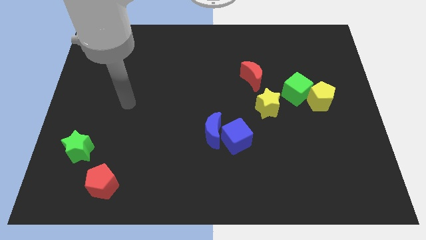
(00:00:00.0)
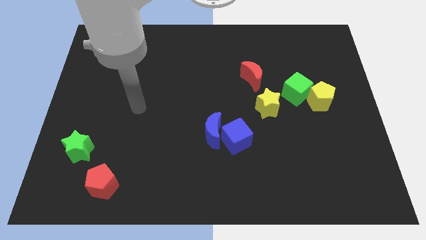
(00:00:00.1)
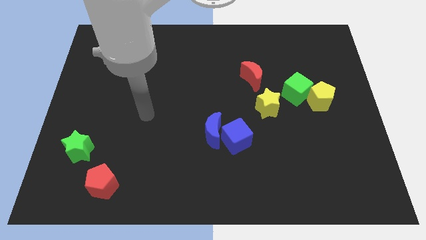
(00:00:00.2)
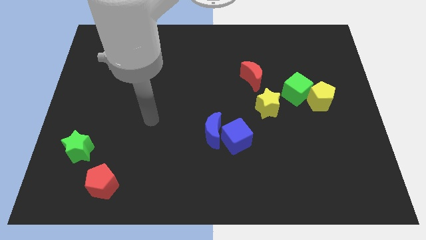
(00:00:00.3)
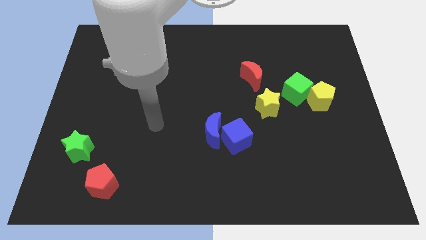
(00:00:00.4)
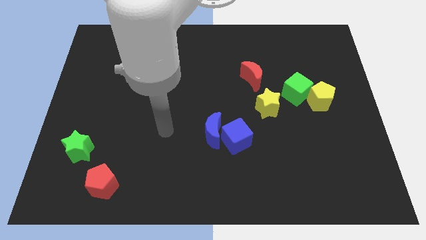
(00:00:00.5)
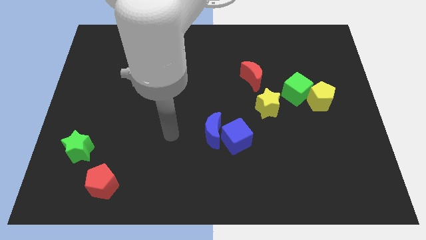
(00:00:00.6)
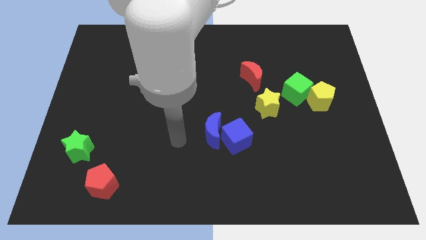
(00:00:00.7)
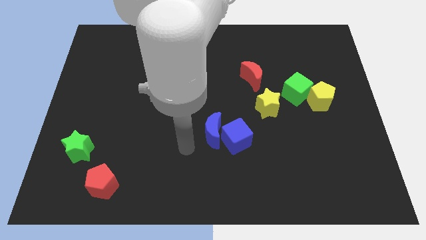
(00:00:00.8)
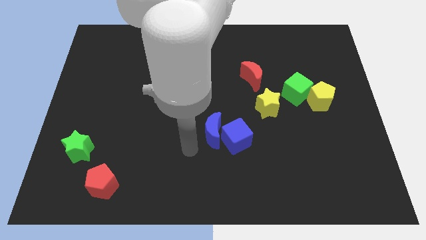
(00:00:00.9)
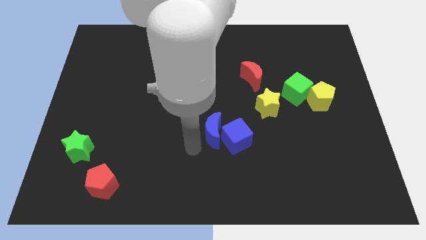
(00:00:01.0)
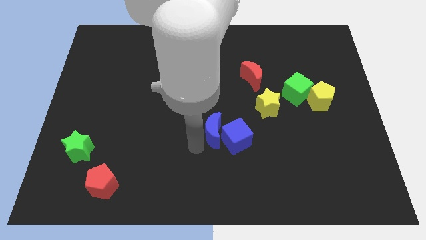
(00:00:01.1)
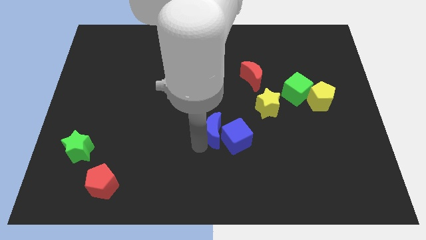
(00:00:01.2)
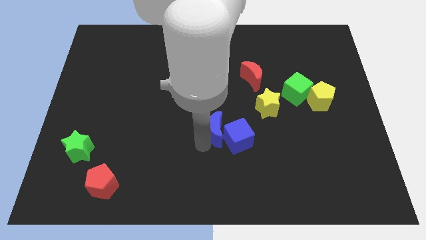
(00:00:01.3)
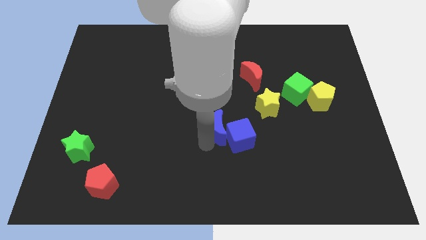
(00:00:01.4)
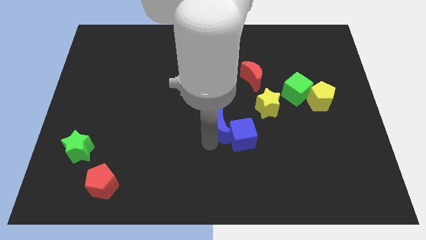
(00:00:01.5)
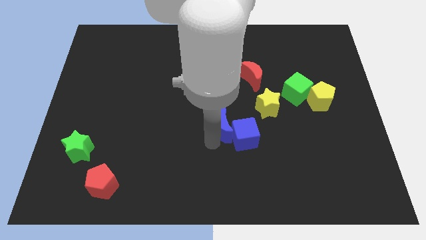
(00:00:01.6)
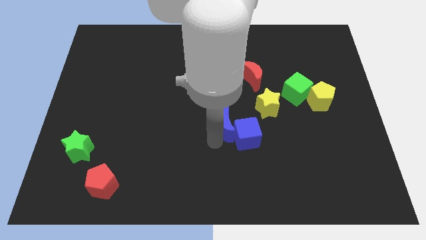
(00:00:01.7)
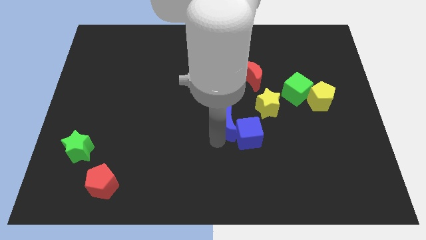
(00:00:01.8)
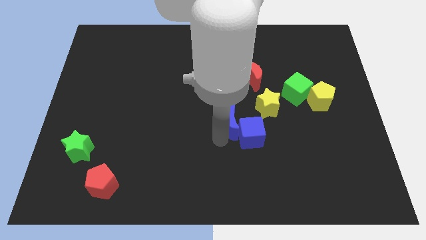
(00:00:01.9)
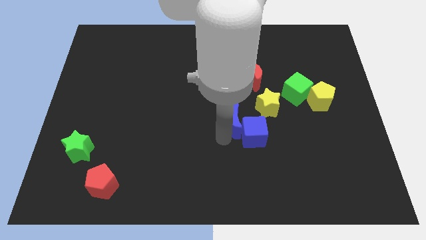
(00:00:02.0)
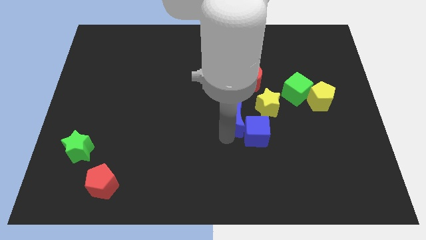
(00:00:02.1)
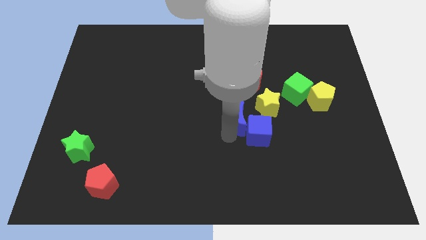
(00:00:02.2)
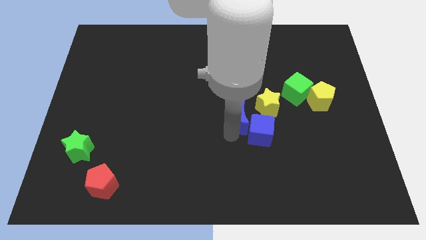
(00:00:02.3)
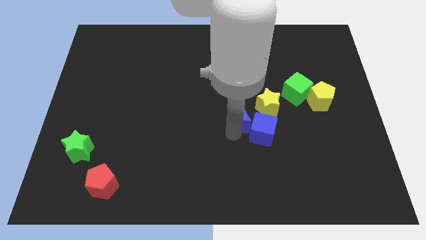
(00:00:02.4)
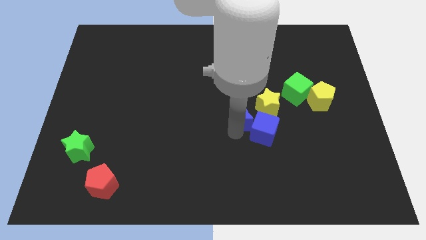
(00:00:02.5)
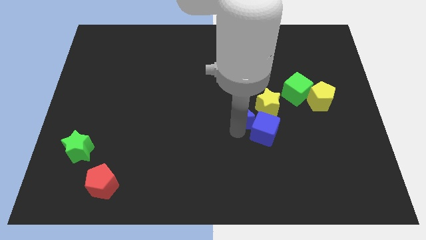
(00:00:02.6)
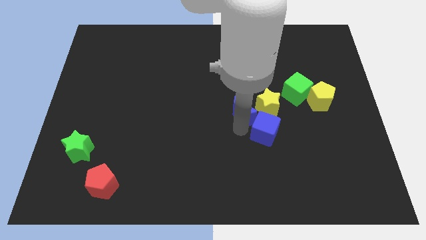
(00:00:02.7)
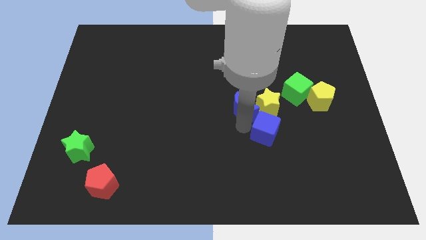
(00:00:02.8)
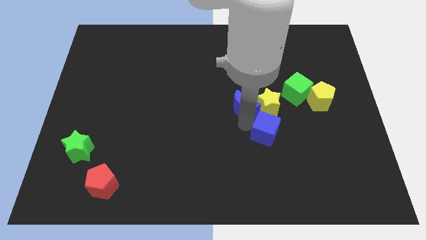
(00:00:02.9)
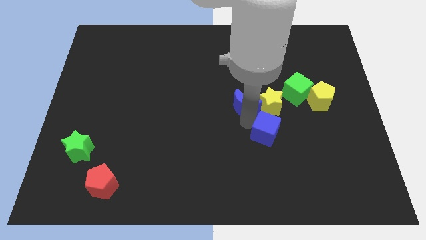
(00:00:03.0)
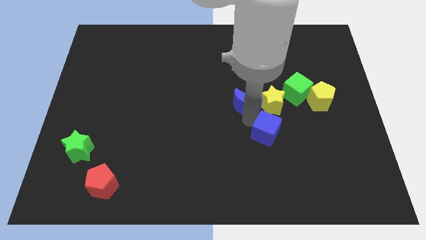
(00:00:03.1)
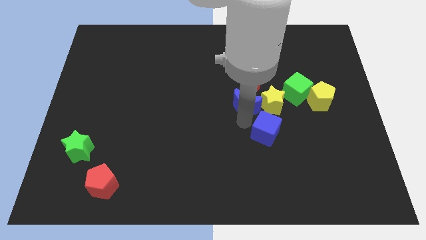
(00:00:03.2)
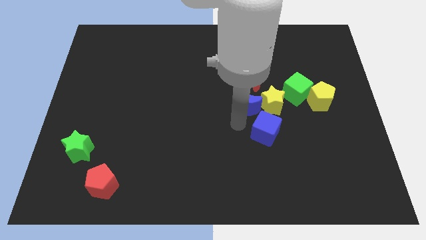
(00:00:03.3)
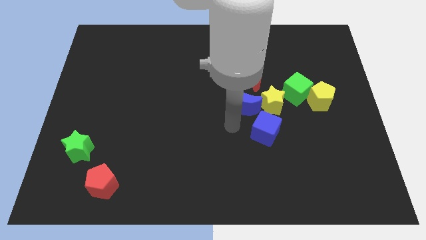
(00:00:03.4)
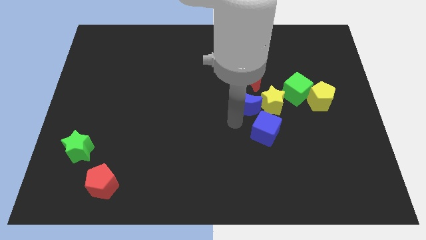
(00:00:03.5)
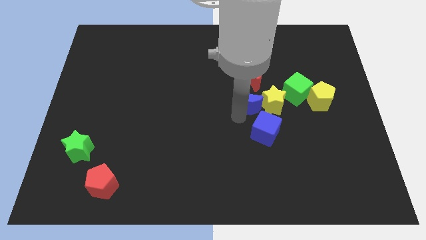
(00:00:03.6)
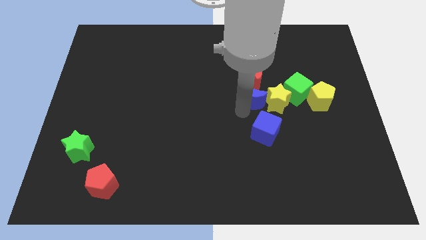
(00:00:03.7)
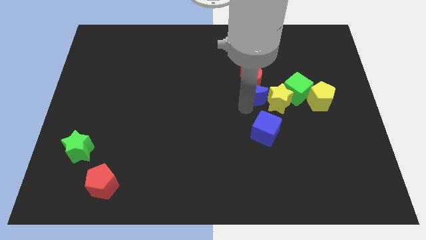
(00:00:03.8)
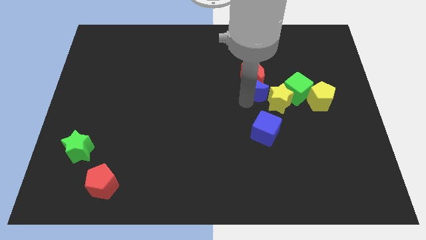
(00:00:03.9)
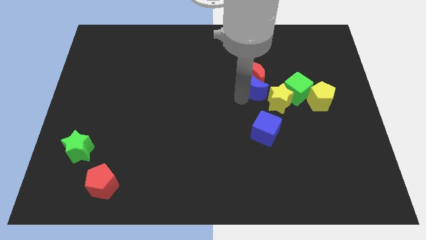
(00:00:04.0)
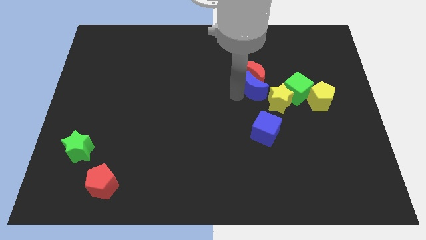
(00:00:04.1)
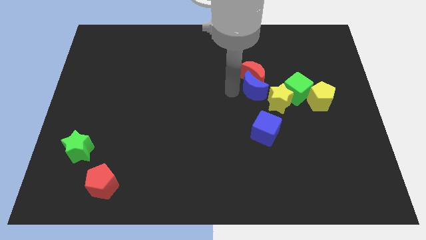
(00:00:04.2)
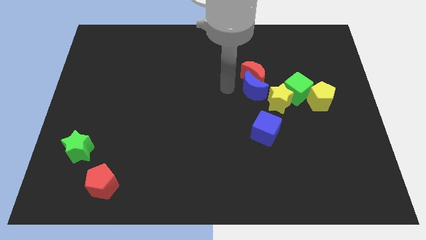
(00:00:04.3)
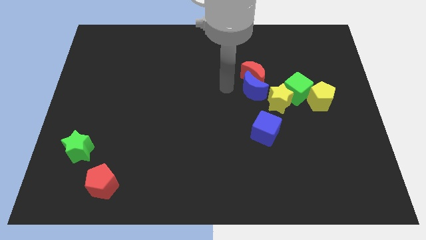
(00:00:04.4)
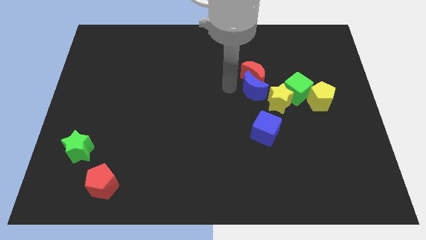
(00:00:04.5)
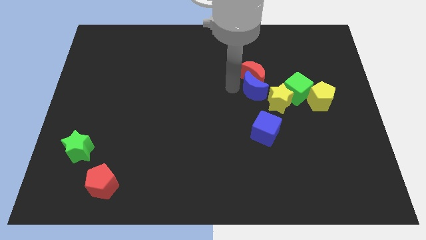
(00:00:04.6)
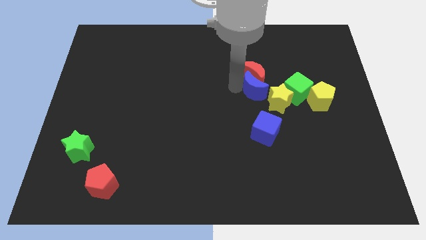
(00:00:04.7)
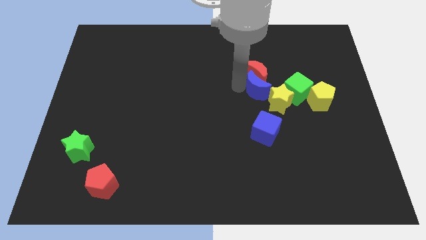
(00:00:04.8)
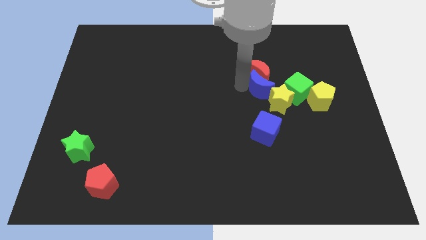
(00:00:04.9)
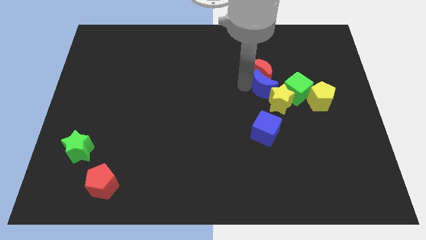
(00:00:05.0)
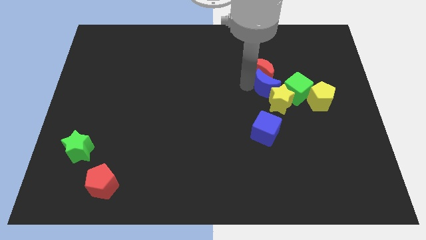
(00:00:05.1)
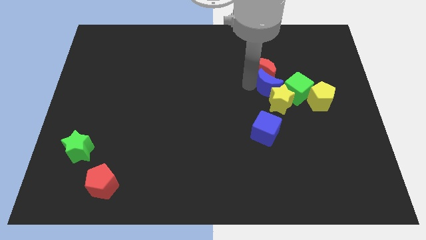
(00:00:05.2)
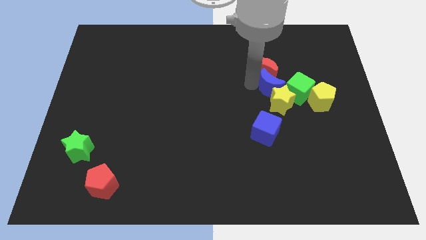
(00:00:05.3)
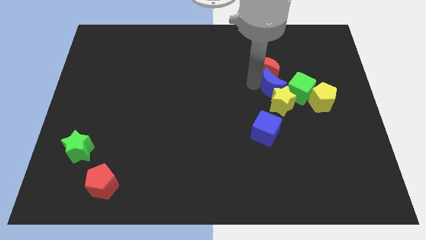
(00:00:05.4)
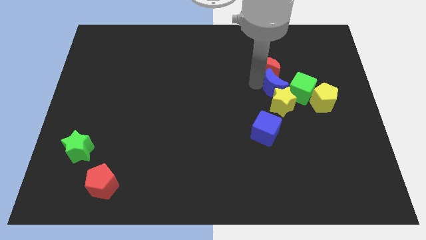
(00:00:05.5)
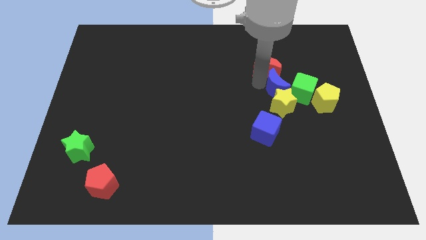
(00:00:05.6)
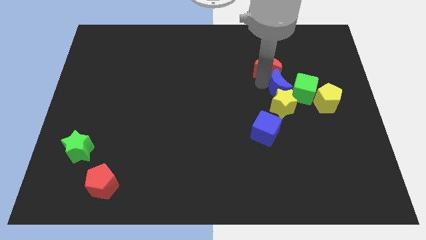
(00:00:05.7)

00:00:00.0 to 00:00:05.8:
slide the blue moon towards the green cube

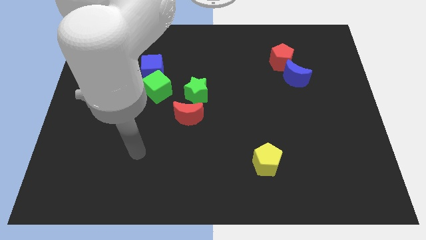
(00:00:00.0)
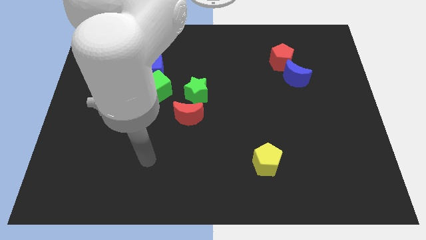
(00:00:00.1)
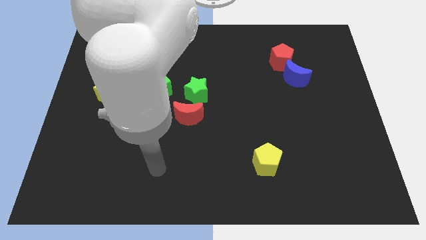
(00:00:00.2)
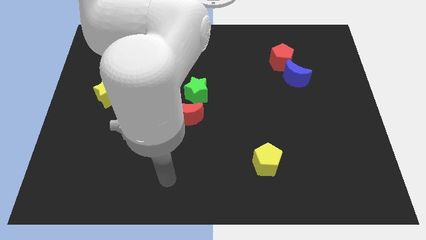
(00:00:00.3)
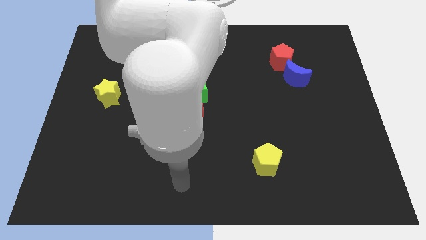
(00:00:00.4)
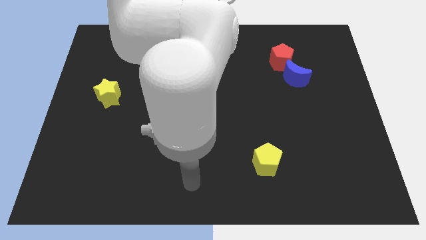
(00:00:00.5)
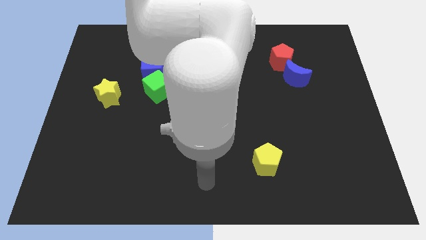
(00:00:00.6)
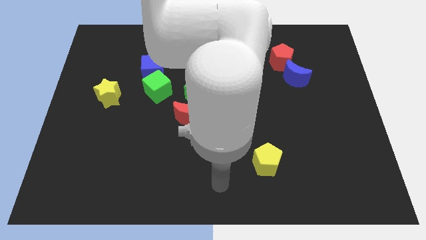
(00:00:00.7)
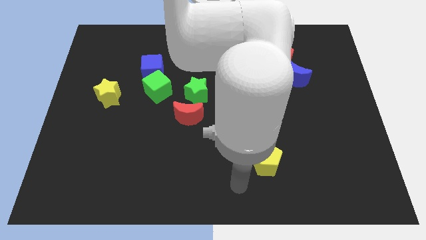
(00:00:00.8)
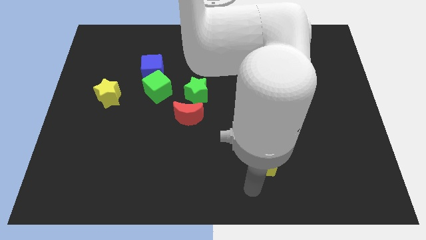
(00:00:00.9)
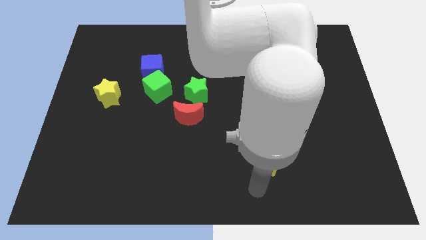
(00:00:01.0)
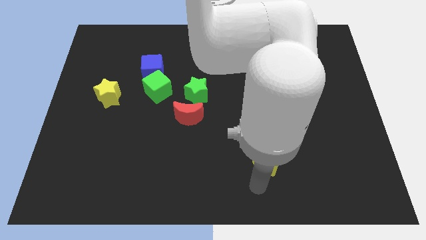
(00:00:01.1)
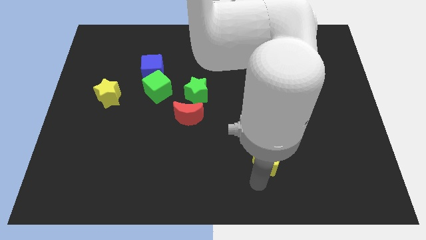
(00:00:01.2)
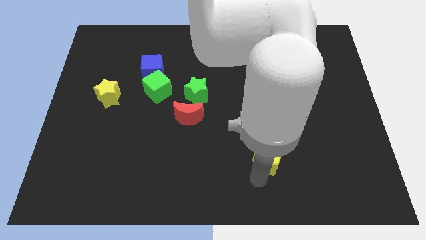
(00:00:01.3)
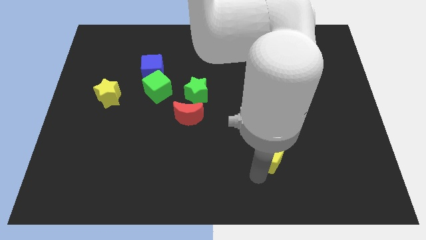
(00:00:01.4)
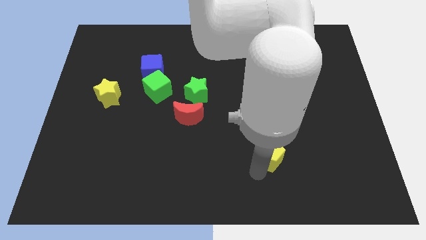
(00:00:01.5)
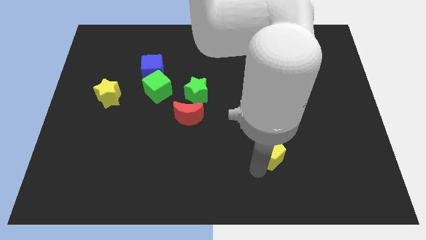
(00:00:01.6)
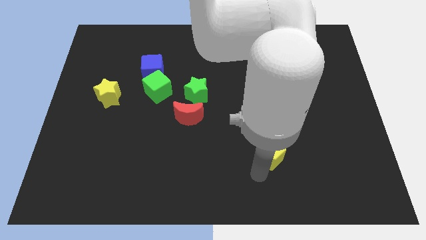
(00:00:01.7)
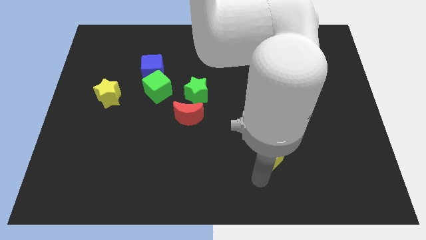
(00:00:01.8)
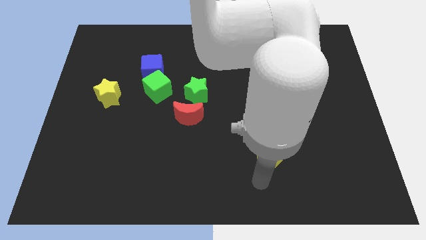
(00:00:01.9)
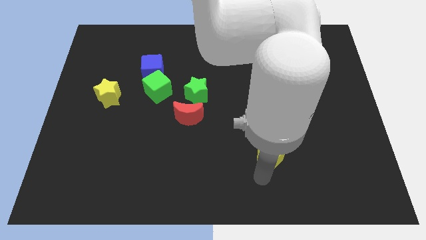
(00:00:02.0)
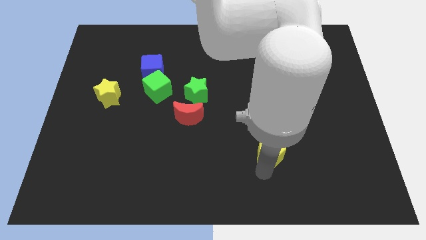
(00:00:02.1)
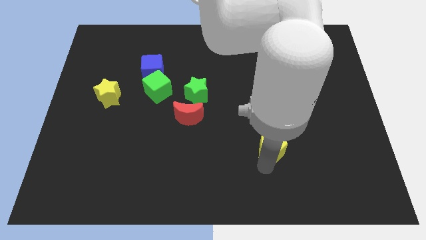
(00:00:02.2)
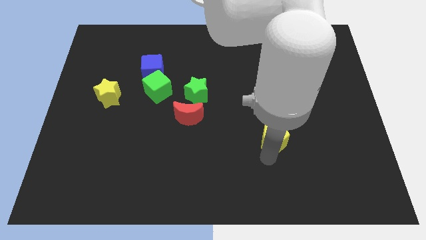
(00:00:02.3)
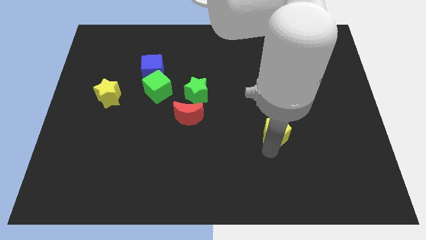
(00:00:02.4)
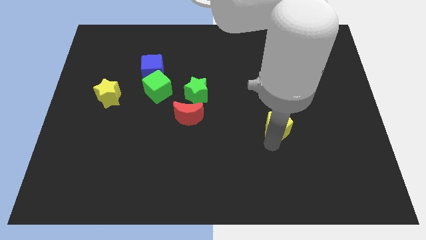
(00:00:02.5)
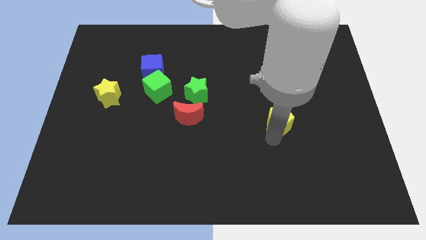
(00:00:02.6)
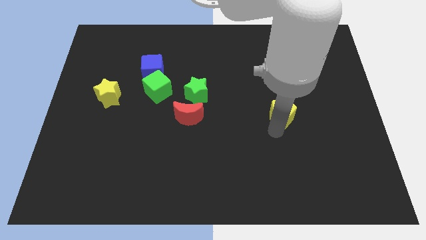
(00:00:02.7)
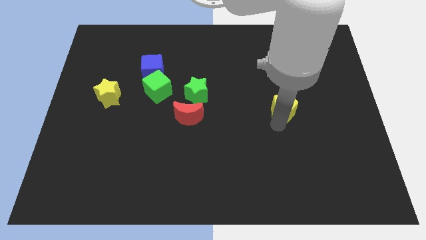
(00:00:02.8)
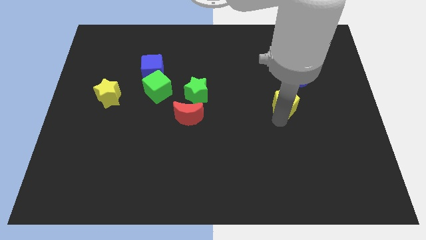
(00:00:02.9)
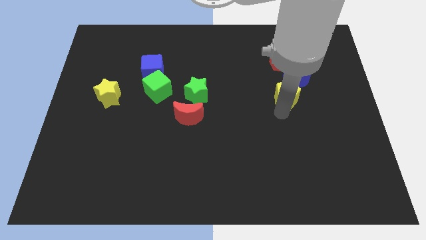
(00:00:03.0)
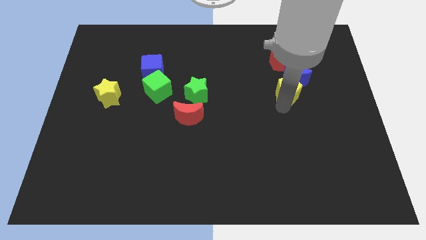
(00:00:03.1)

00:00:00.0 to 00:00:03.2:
move the yellow pentagon towards the blue moon
